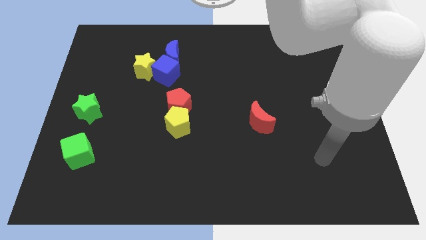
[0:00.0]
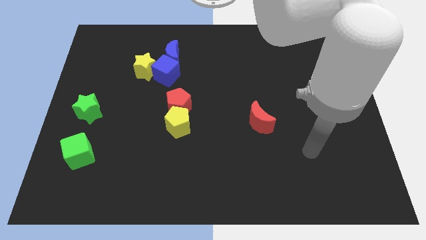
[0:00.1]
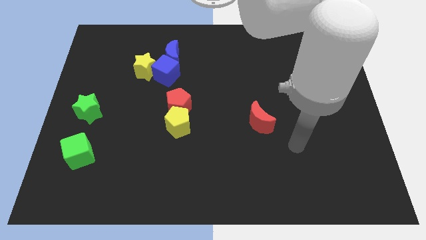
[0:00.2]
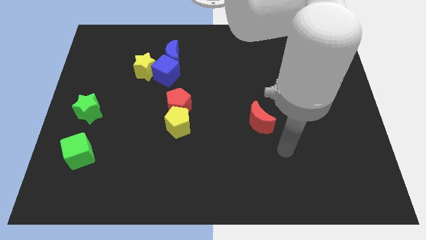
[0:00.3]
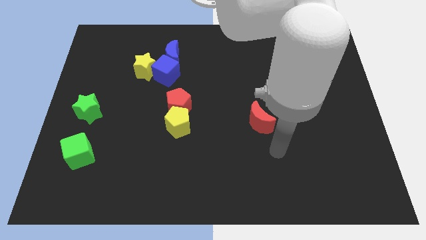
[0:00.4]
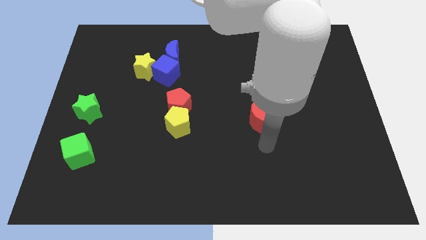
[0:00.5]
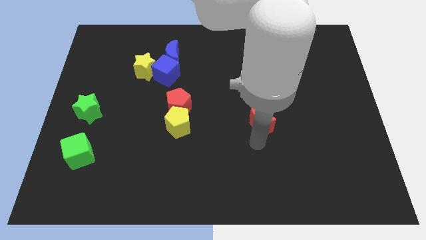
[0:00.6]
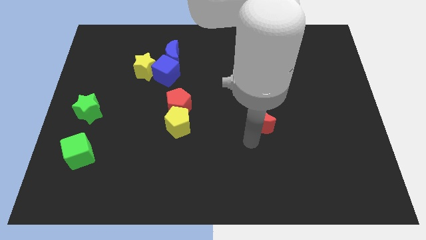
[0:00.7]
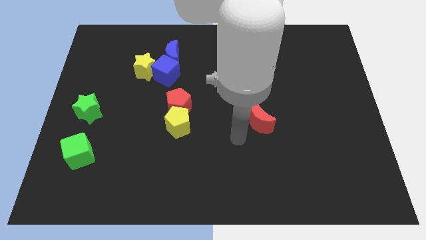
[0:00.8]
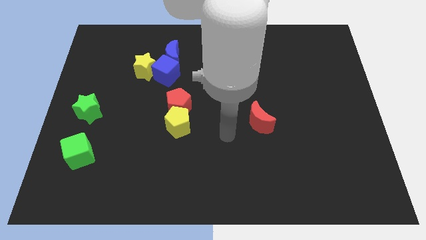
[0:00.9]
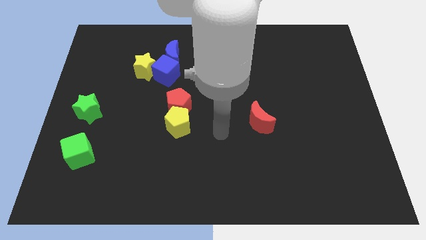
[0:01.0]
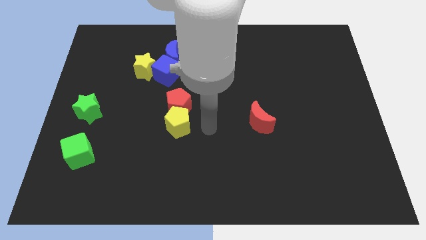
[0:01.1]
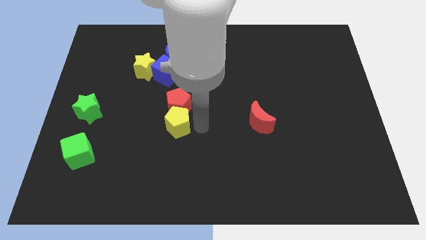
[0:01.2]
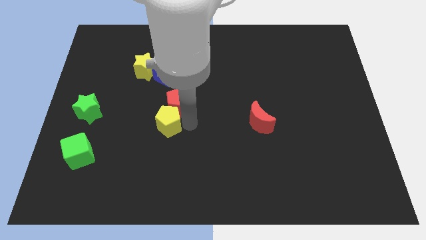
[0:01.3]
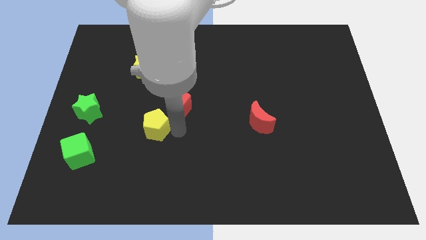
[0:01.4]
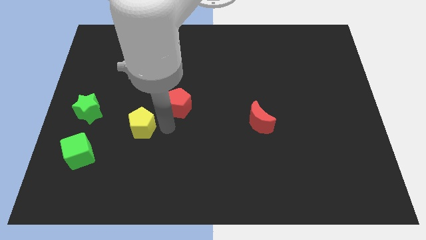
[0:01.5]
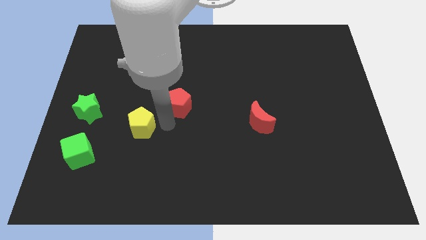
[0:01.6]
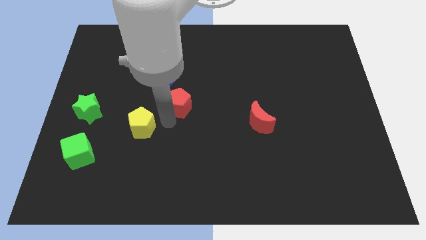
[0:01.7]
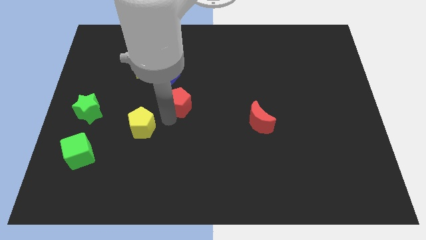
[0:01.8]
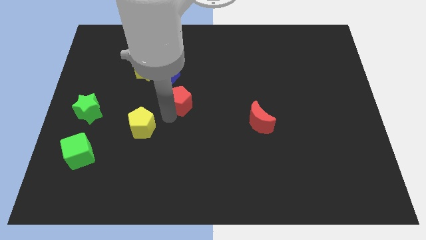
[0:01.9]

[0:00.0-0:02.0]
move the red pentagon away from the yellow pentagon

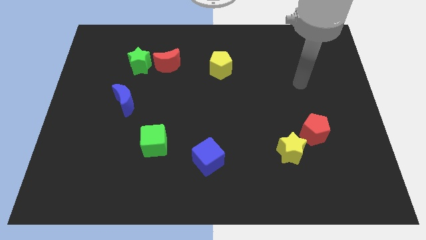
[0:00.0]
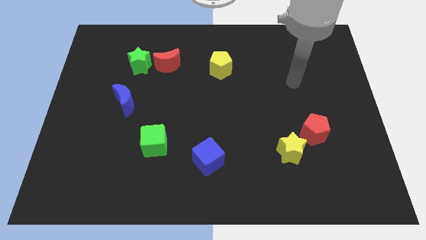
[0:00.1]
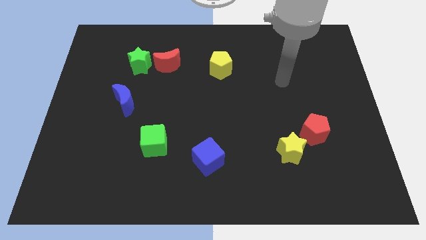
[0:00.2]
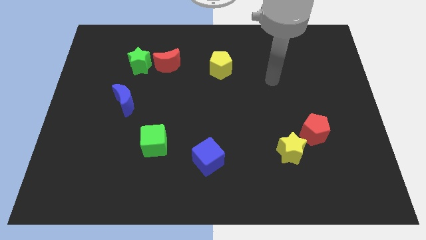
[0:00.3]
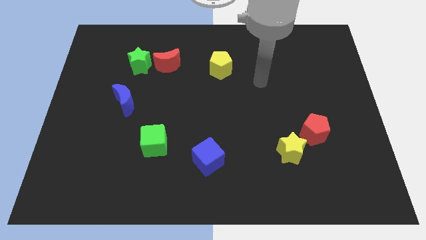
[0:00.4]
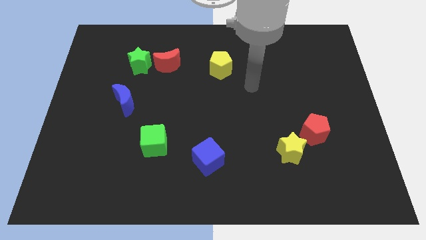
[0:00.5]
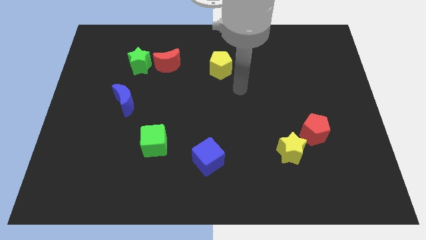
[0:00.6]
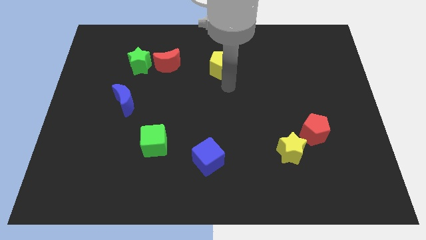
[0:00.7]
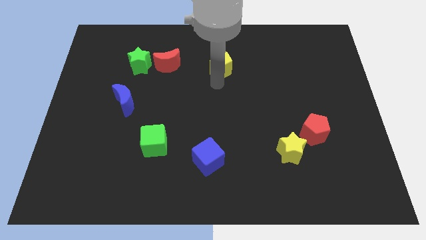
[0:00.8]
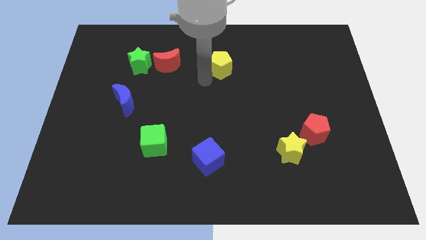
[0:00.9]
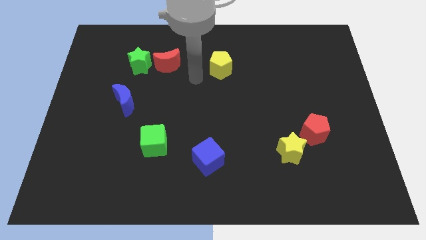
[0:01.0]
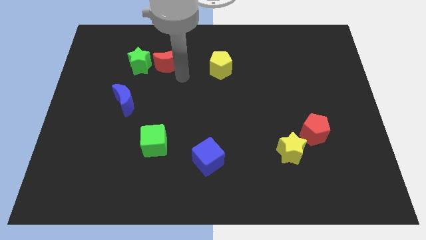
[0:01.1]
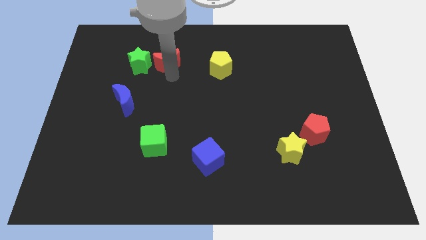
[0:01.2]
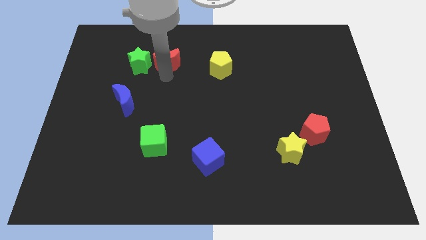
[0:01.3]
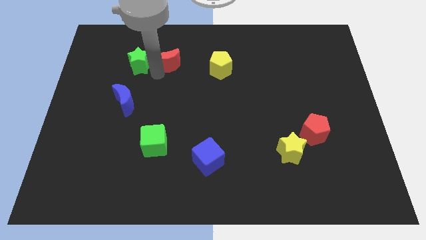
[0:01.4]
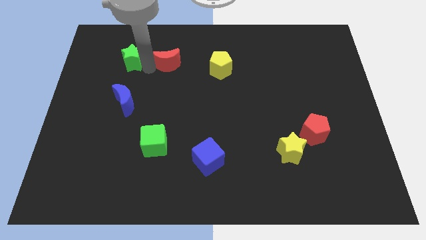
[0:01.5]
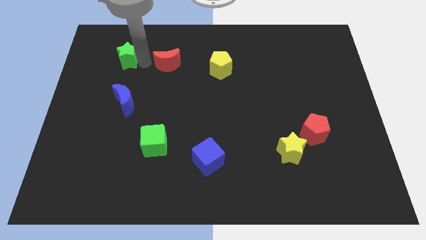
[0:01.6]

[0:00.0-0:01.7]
move the red moon away from the green star

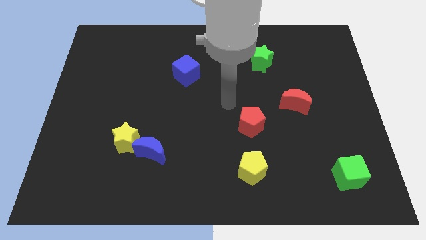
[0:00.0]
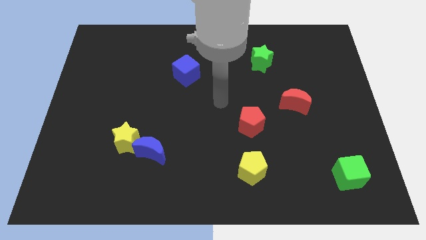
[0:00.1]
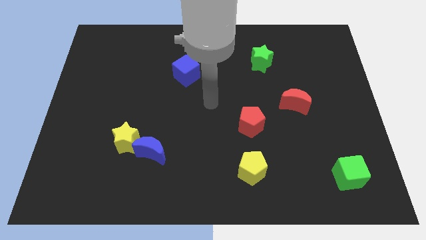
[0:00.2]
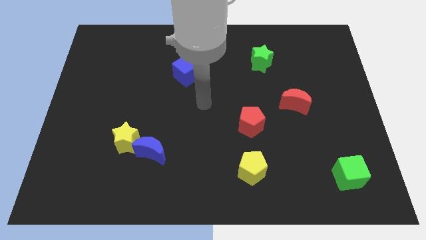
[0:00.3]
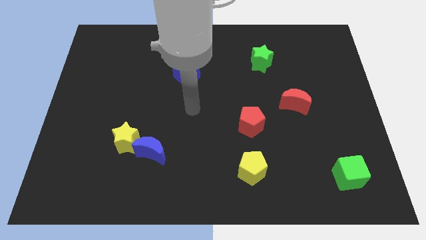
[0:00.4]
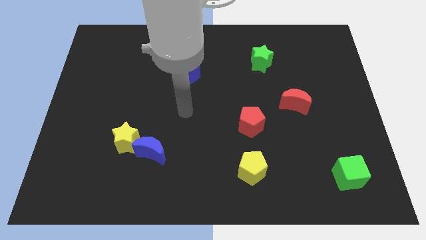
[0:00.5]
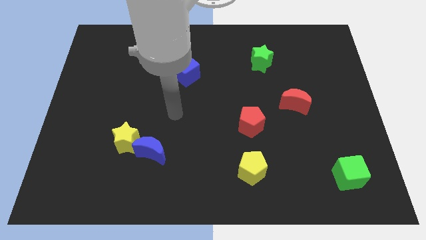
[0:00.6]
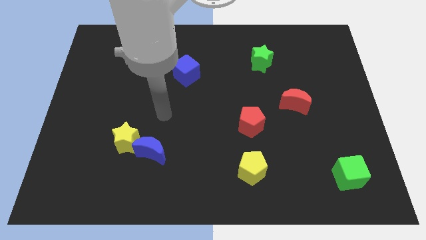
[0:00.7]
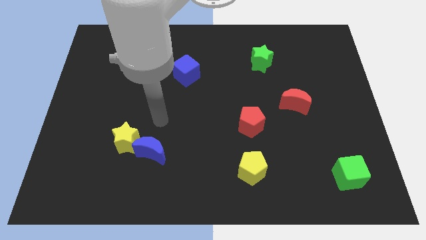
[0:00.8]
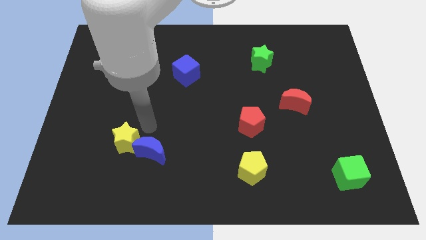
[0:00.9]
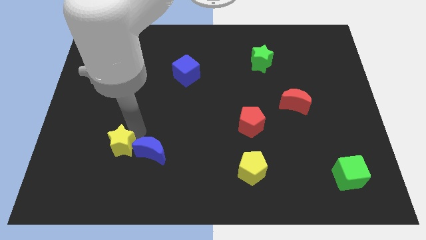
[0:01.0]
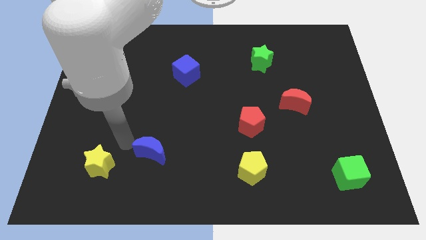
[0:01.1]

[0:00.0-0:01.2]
separate the blue moon from the yellow star

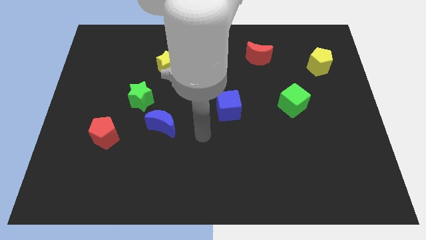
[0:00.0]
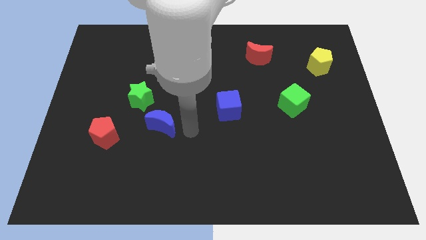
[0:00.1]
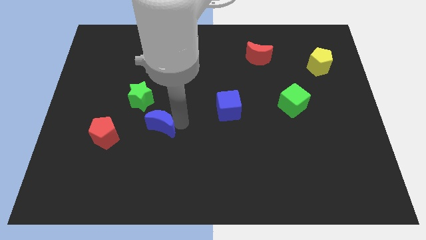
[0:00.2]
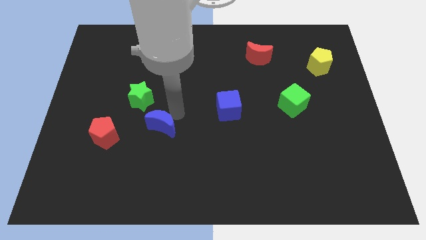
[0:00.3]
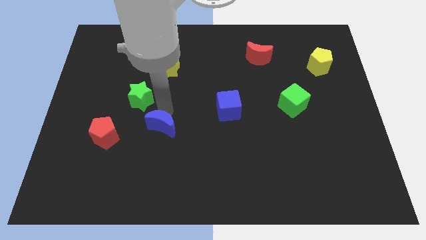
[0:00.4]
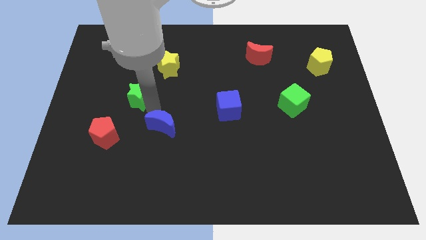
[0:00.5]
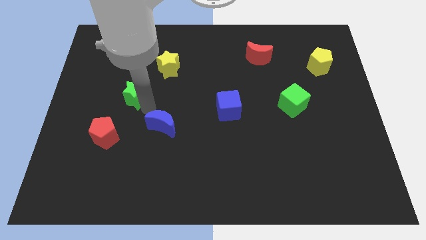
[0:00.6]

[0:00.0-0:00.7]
pull the blue moon apart from the green star

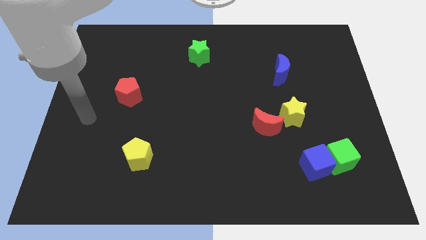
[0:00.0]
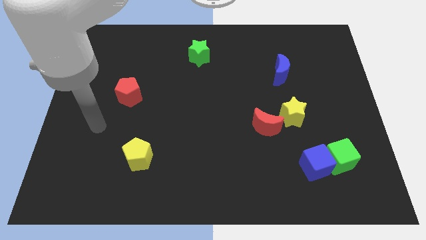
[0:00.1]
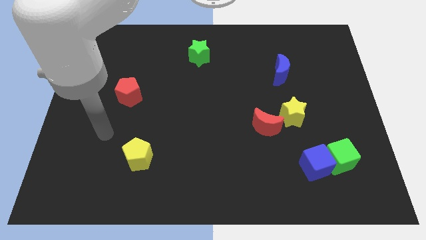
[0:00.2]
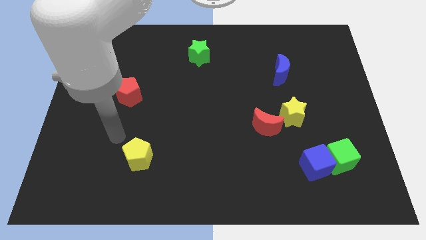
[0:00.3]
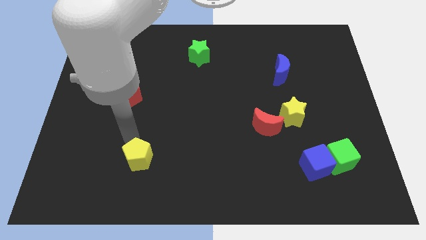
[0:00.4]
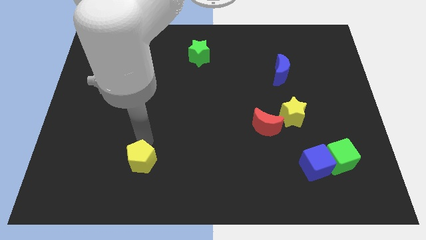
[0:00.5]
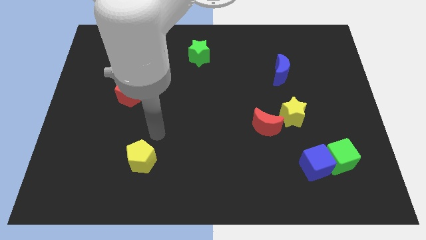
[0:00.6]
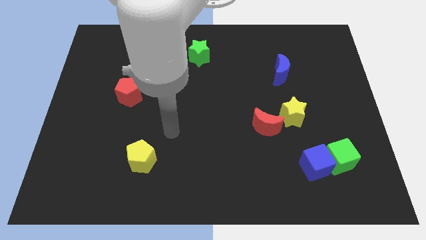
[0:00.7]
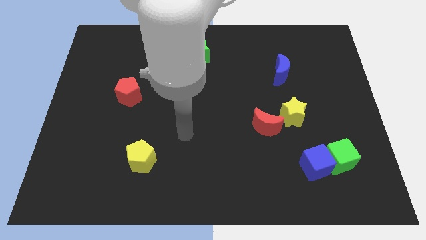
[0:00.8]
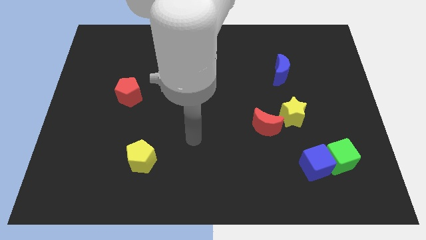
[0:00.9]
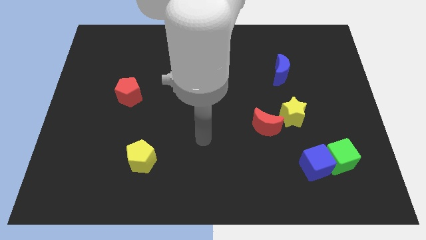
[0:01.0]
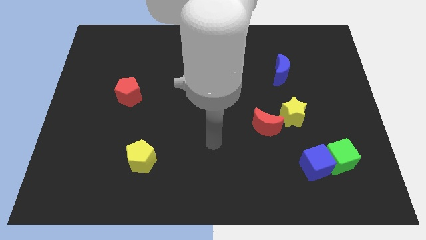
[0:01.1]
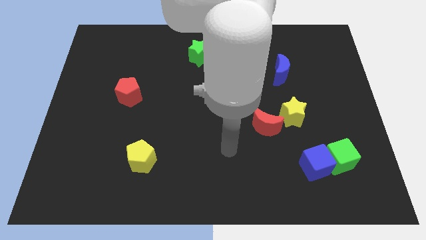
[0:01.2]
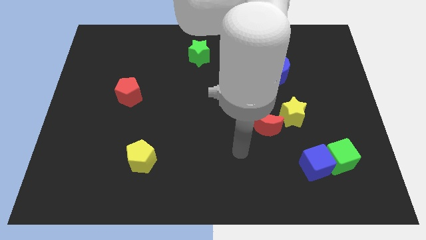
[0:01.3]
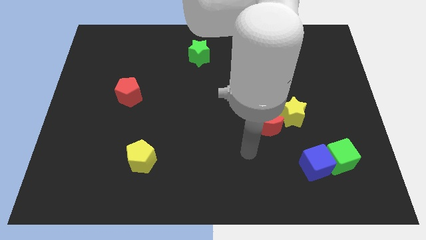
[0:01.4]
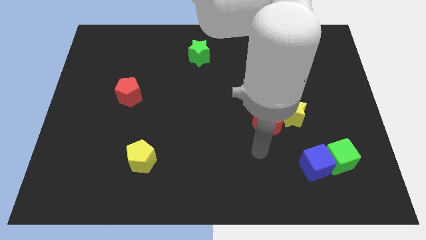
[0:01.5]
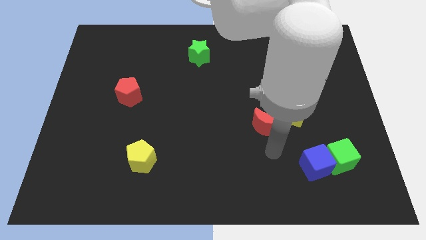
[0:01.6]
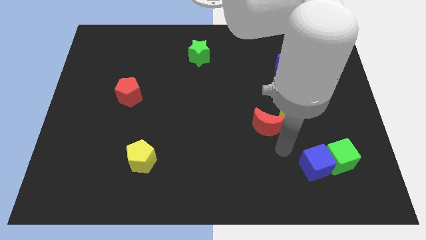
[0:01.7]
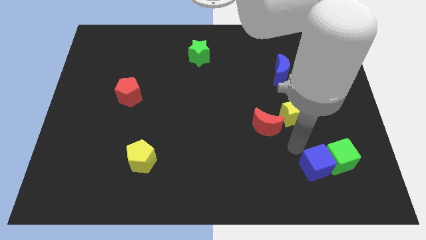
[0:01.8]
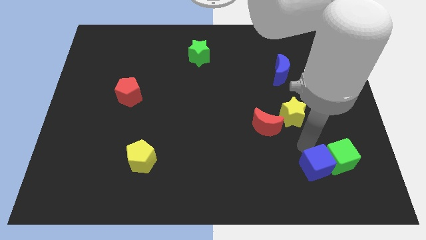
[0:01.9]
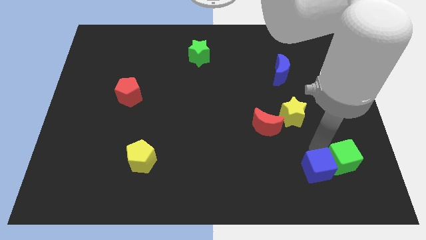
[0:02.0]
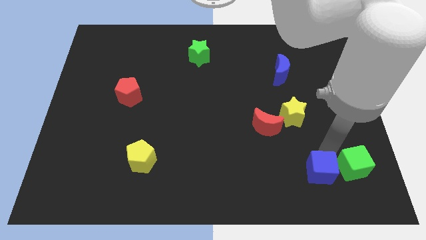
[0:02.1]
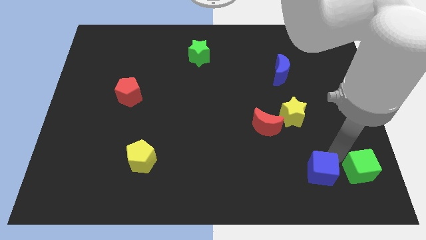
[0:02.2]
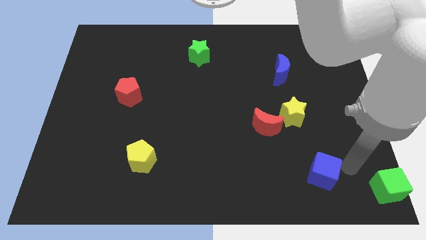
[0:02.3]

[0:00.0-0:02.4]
pull the blue cube apart from the green cube

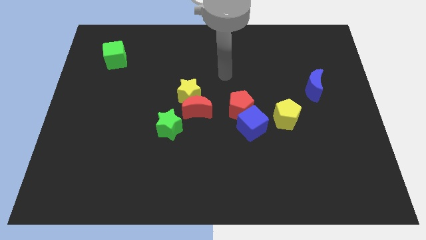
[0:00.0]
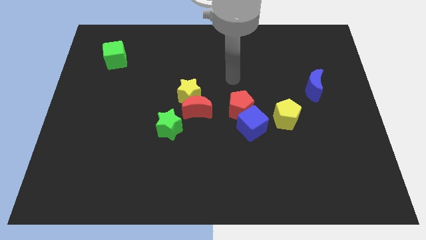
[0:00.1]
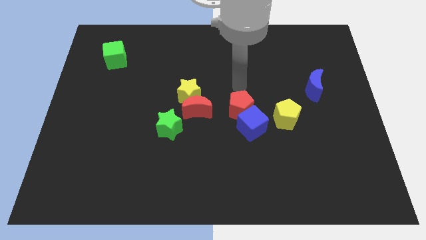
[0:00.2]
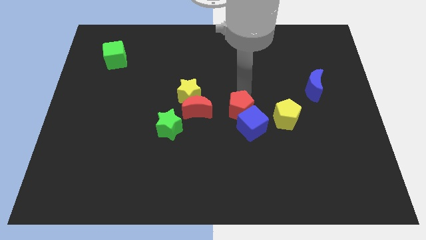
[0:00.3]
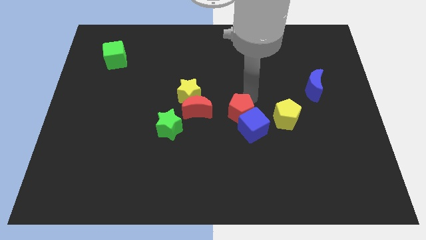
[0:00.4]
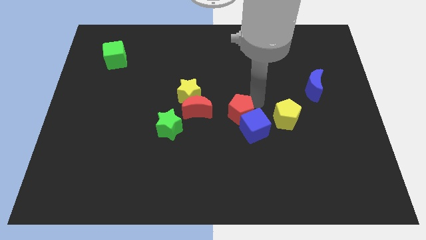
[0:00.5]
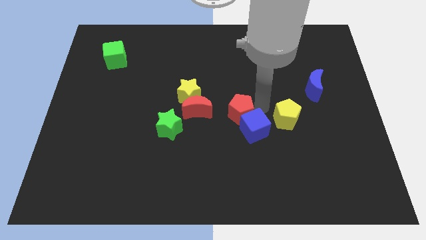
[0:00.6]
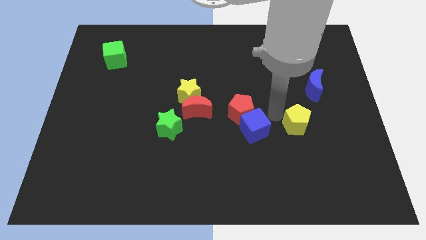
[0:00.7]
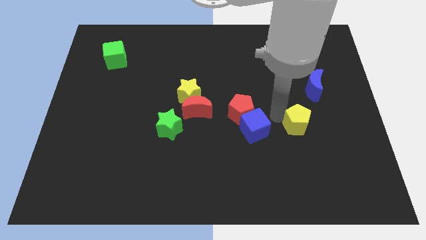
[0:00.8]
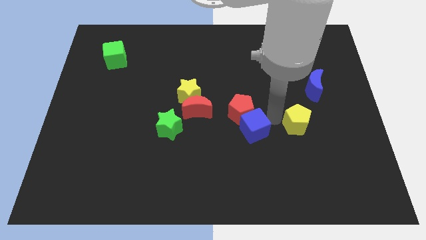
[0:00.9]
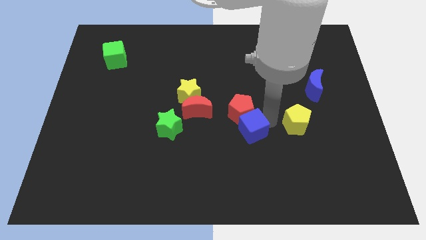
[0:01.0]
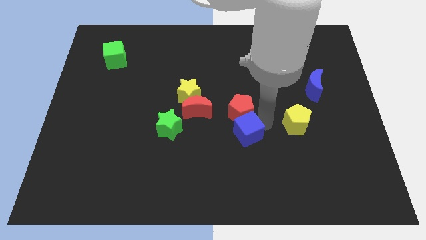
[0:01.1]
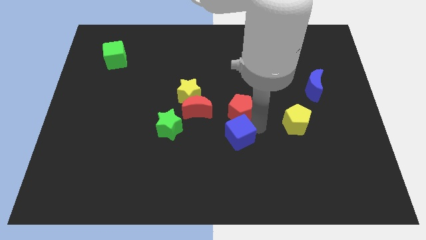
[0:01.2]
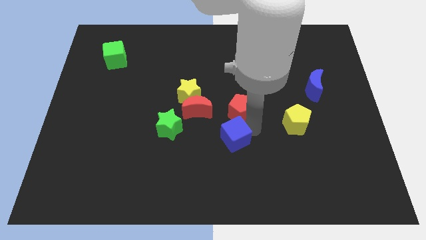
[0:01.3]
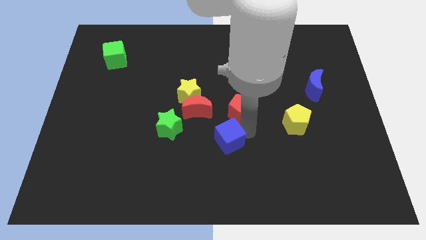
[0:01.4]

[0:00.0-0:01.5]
pull the blue cube apart from the red pentagon and yellow pentagon
